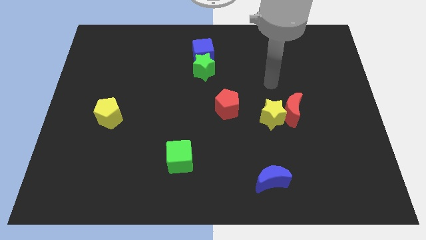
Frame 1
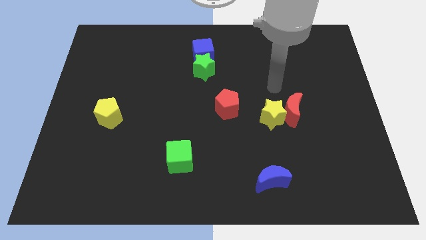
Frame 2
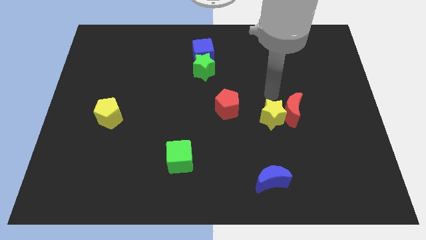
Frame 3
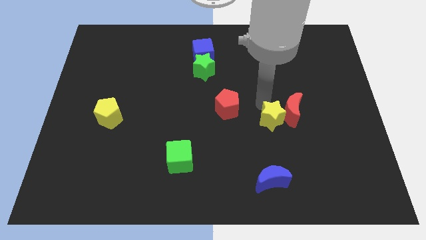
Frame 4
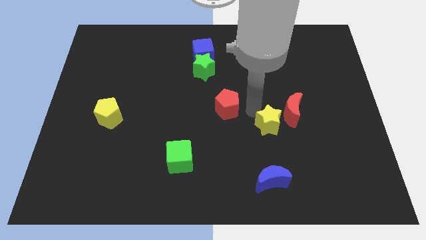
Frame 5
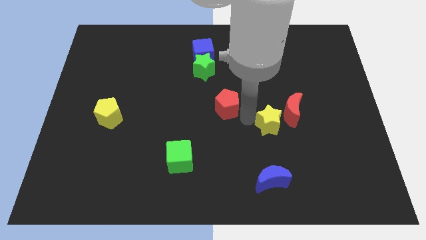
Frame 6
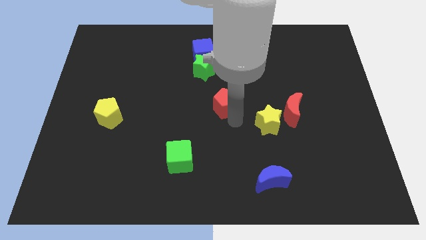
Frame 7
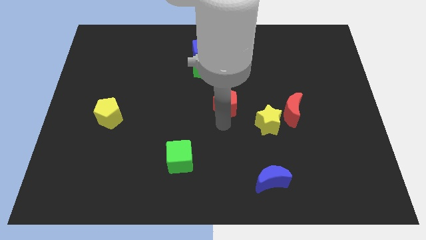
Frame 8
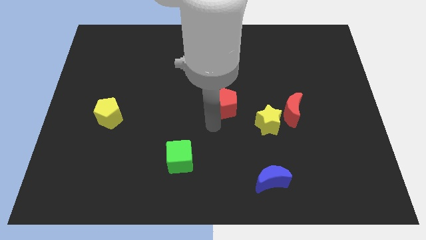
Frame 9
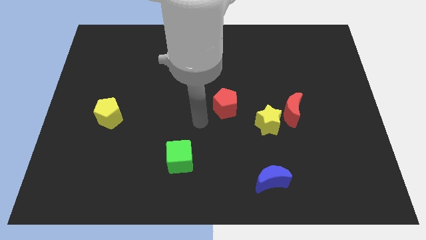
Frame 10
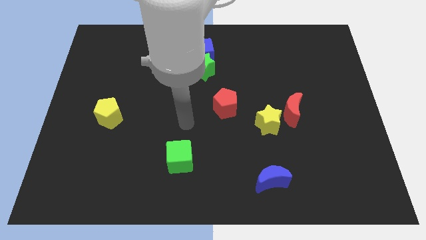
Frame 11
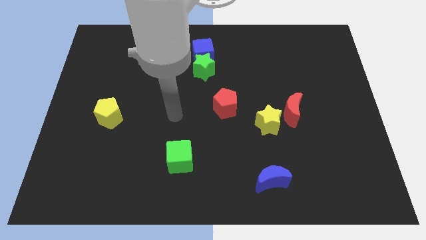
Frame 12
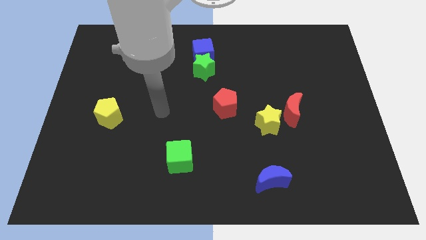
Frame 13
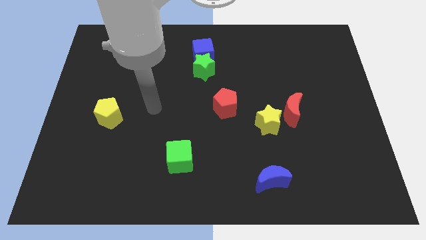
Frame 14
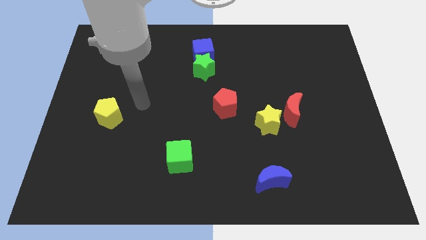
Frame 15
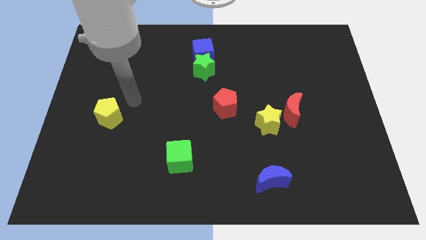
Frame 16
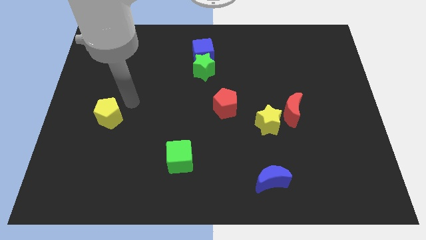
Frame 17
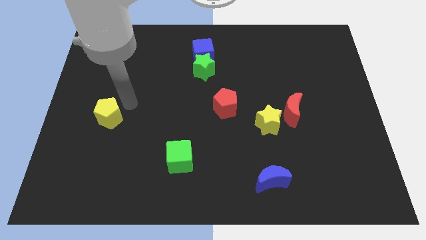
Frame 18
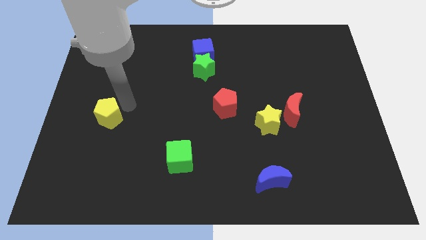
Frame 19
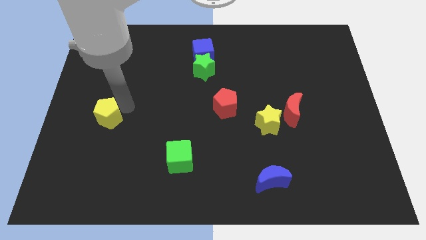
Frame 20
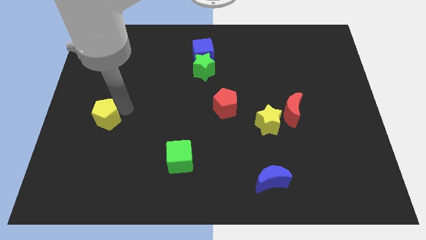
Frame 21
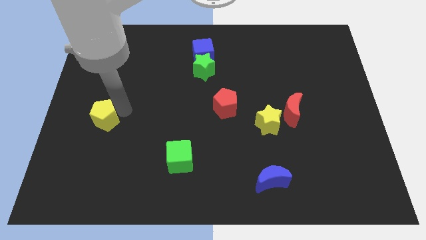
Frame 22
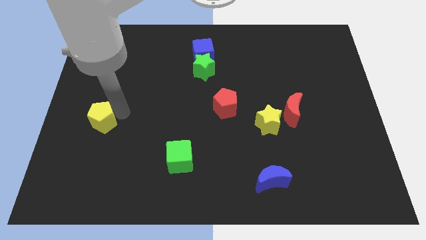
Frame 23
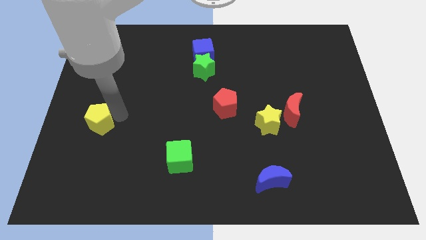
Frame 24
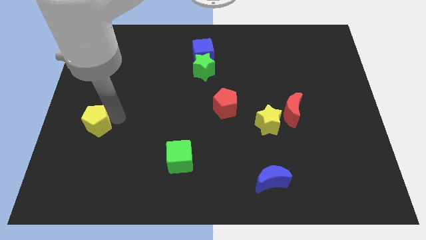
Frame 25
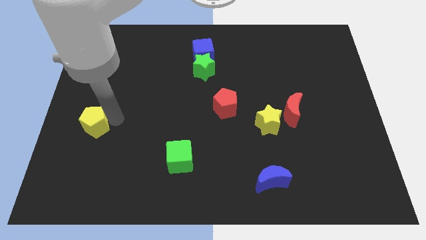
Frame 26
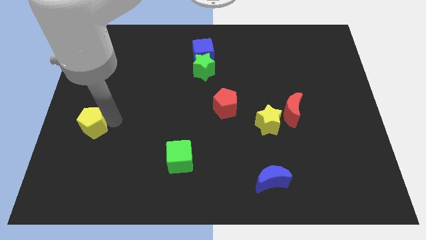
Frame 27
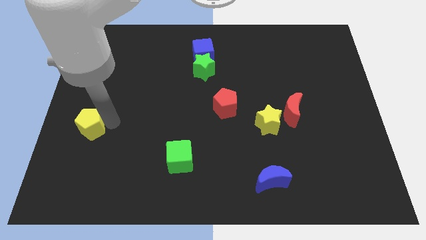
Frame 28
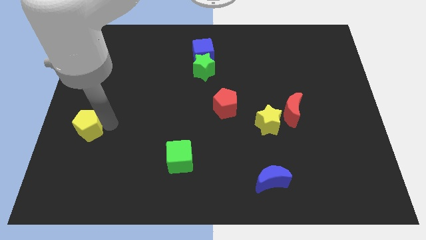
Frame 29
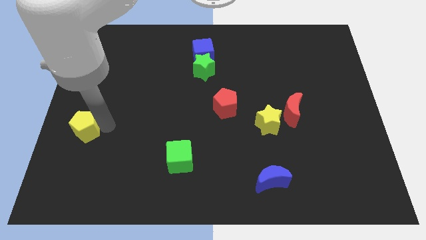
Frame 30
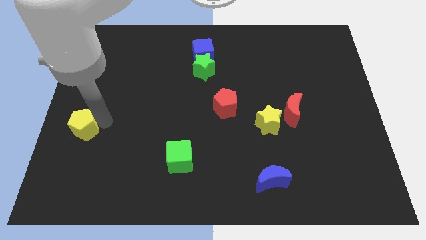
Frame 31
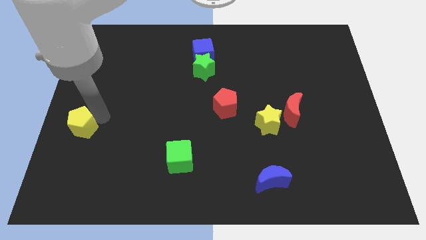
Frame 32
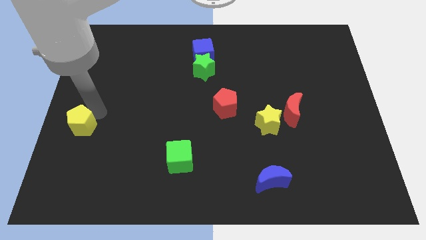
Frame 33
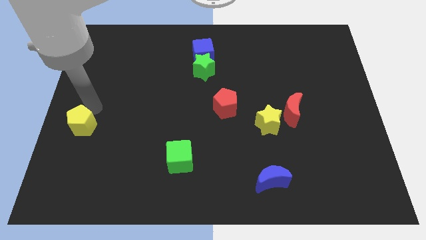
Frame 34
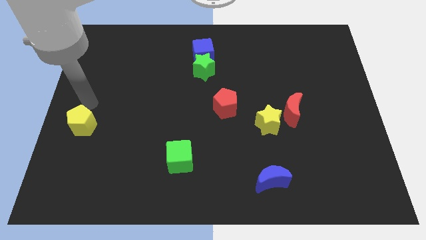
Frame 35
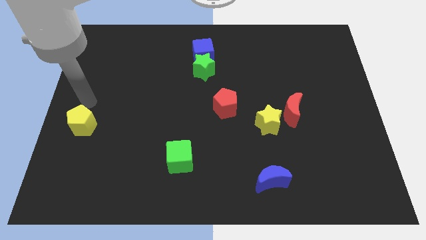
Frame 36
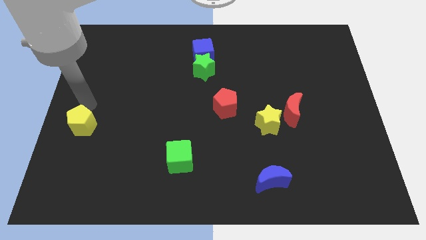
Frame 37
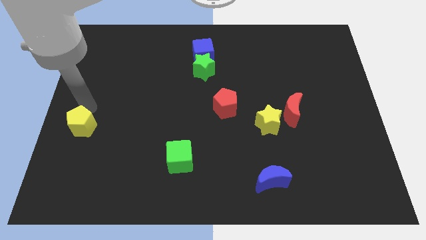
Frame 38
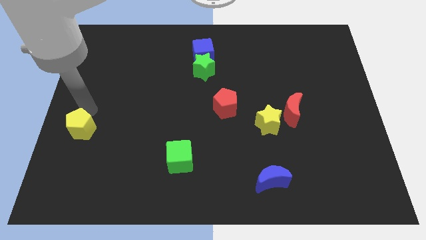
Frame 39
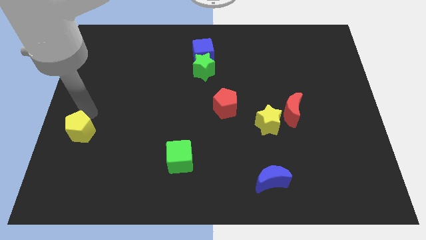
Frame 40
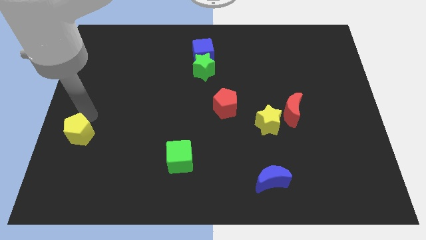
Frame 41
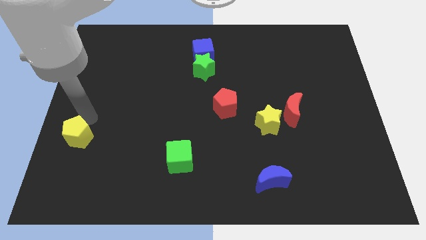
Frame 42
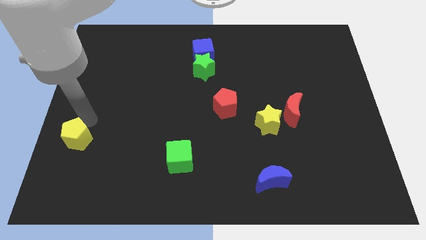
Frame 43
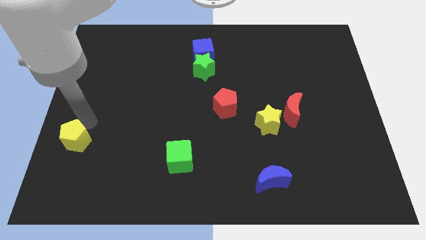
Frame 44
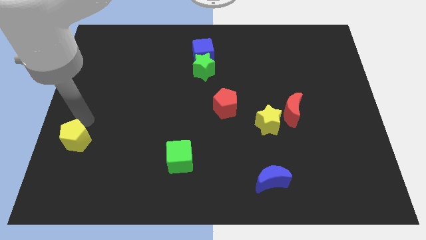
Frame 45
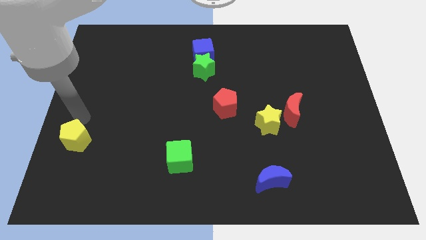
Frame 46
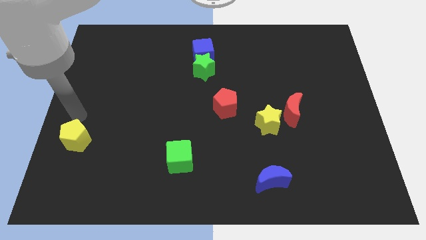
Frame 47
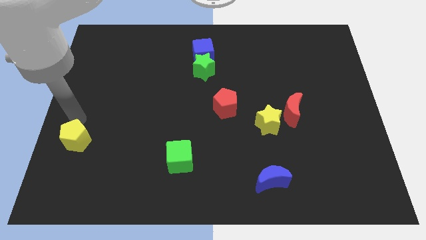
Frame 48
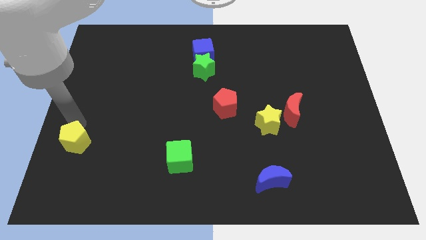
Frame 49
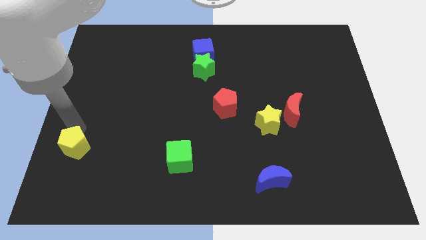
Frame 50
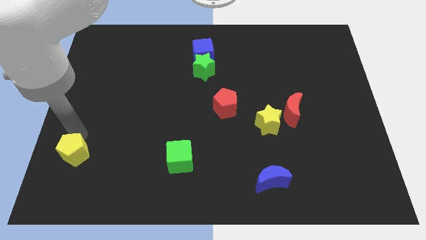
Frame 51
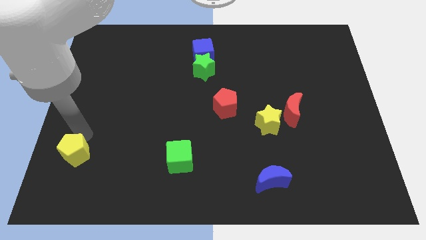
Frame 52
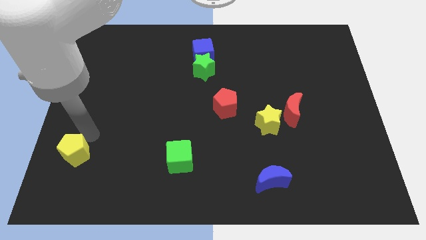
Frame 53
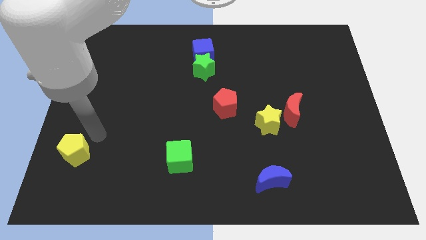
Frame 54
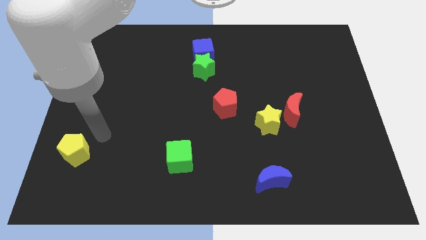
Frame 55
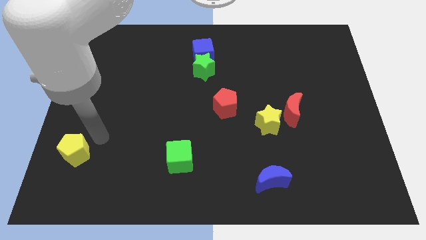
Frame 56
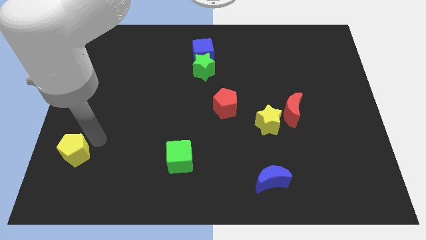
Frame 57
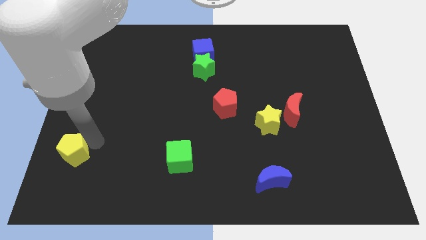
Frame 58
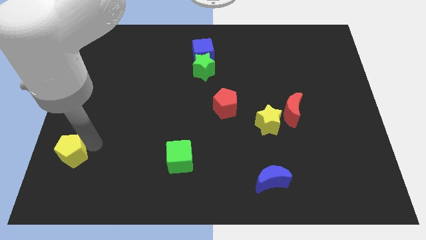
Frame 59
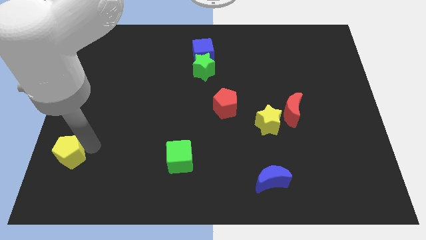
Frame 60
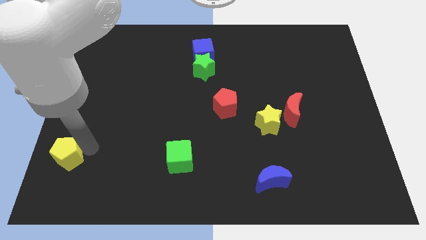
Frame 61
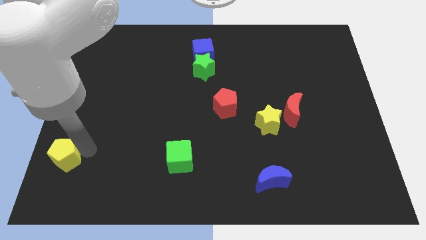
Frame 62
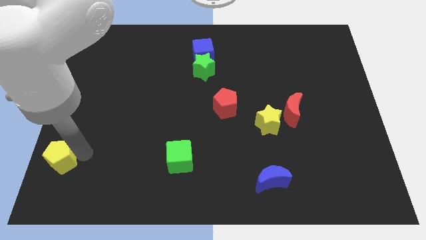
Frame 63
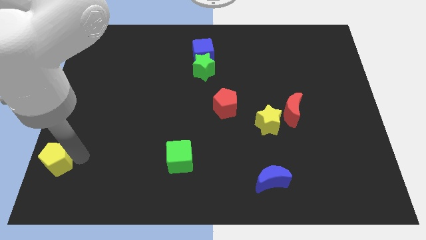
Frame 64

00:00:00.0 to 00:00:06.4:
move the yellow pentagon to the bottom left corner
